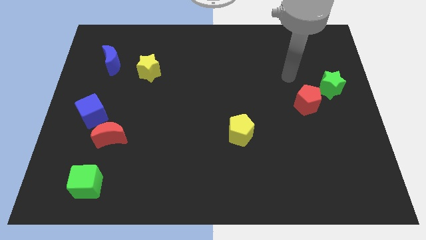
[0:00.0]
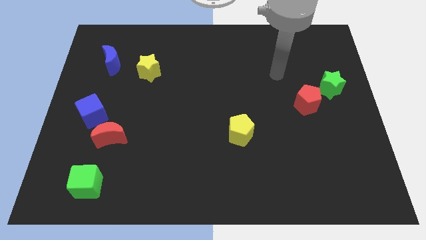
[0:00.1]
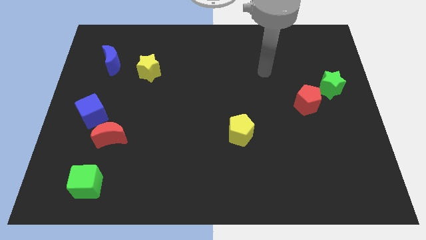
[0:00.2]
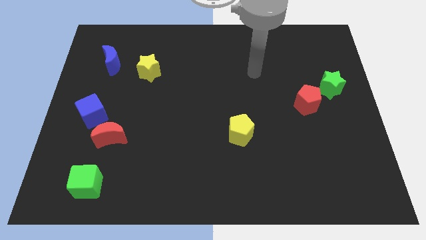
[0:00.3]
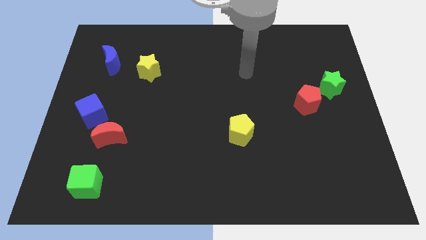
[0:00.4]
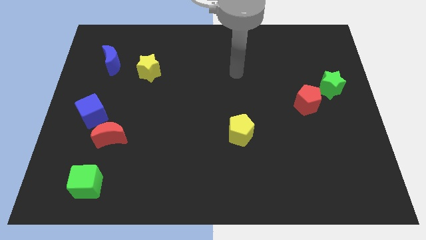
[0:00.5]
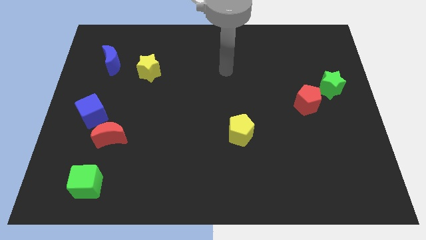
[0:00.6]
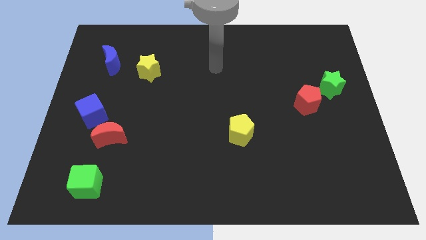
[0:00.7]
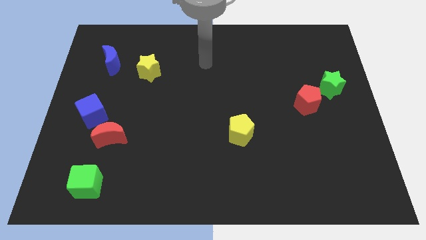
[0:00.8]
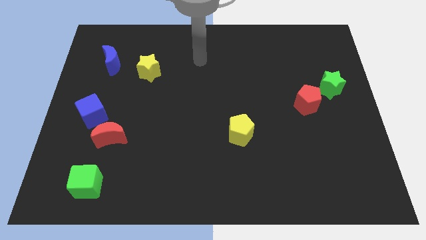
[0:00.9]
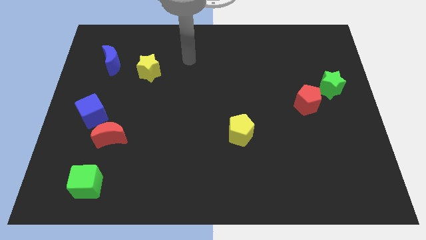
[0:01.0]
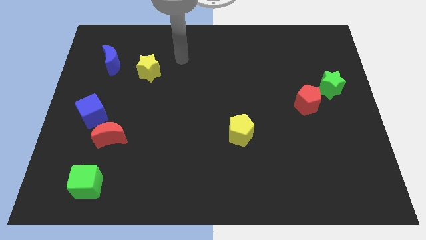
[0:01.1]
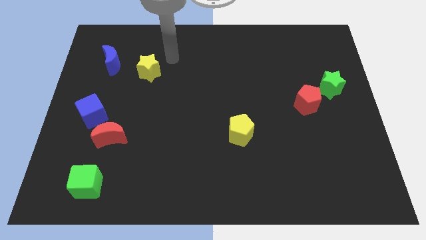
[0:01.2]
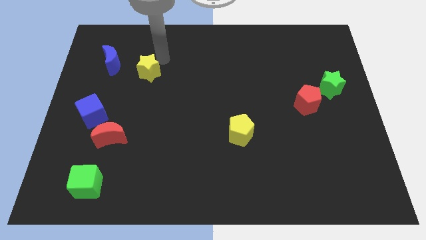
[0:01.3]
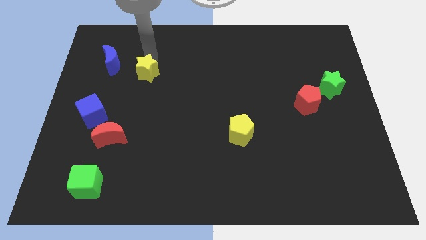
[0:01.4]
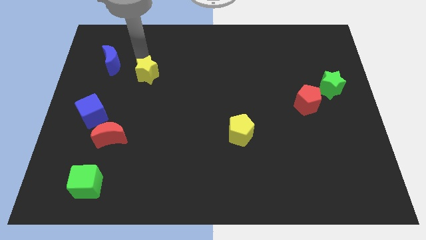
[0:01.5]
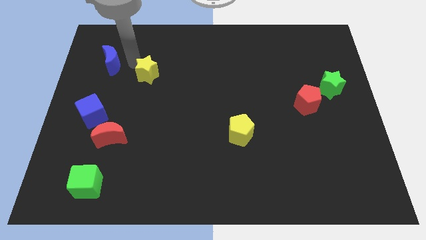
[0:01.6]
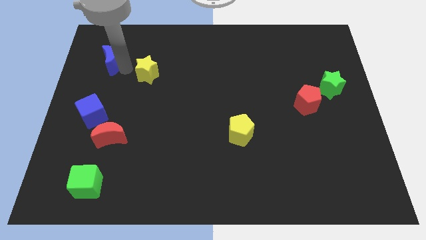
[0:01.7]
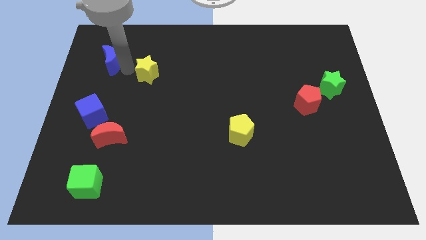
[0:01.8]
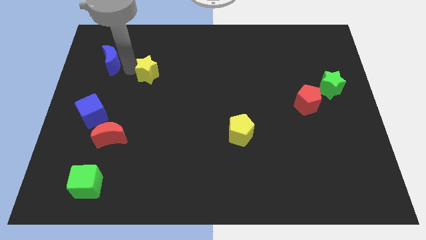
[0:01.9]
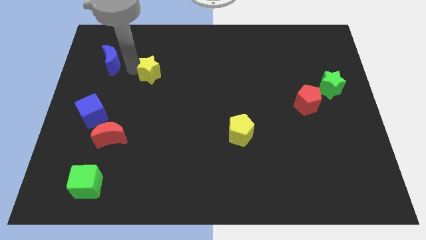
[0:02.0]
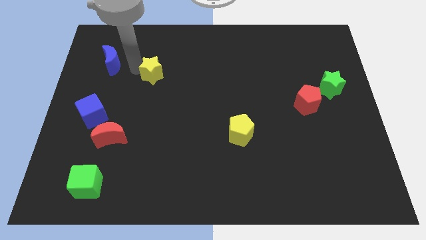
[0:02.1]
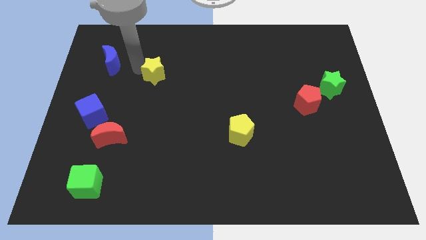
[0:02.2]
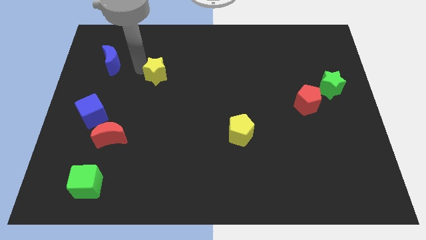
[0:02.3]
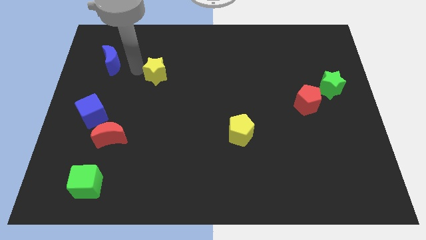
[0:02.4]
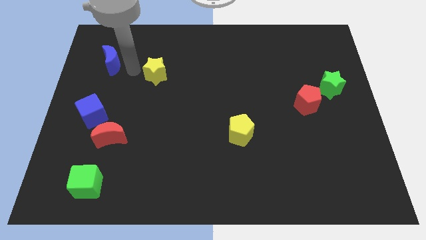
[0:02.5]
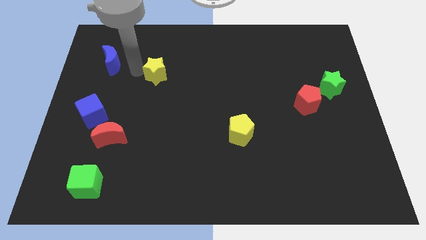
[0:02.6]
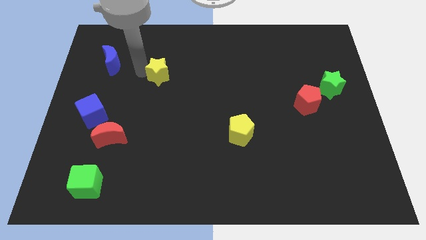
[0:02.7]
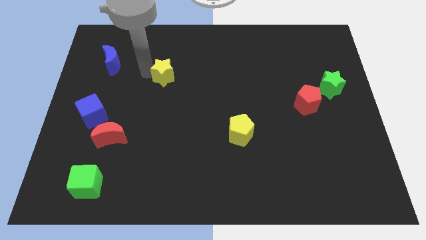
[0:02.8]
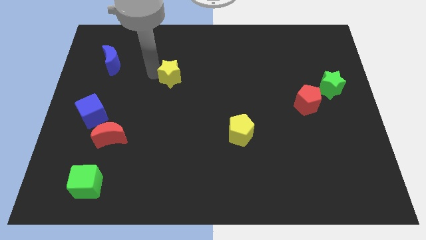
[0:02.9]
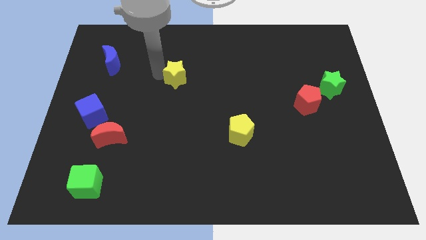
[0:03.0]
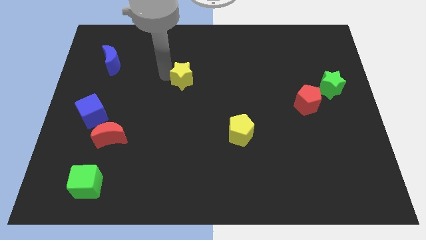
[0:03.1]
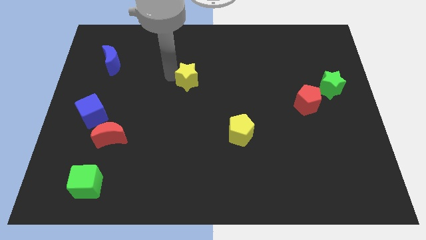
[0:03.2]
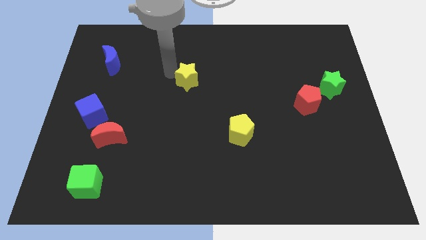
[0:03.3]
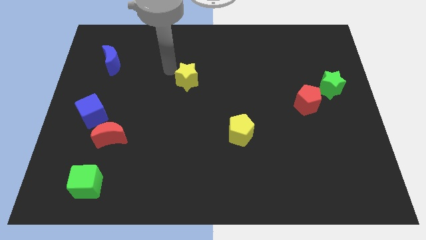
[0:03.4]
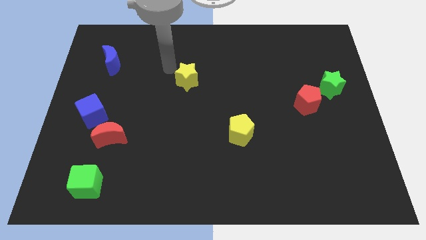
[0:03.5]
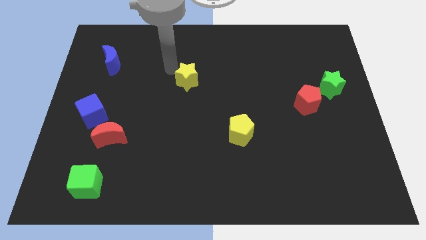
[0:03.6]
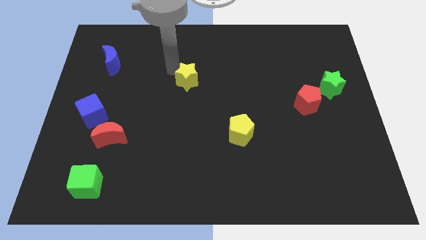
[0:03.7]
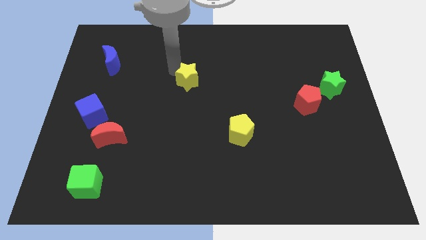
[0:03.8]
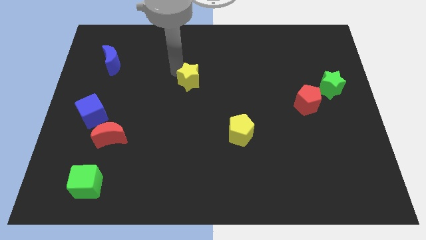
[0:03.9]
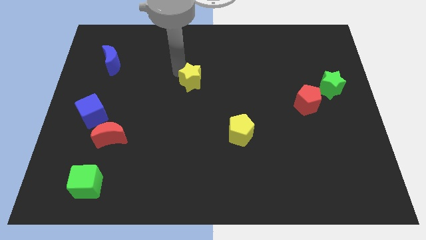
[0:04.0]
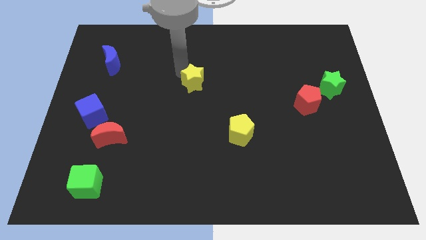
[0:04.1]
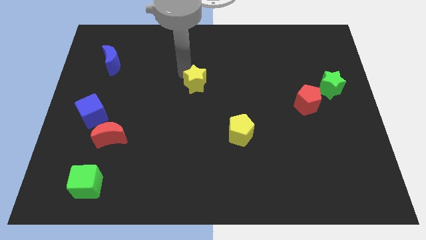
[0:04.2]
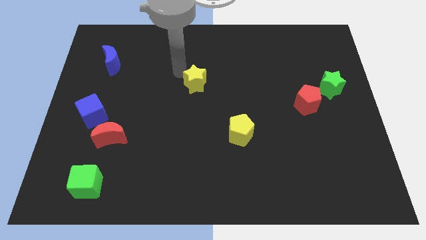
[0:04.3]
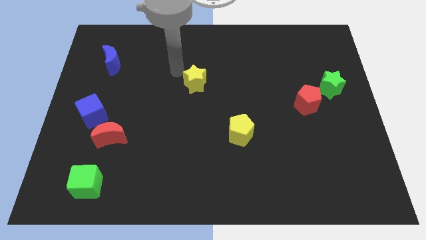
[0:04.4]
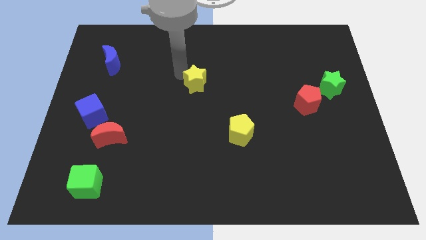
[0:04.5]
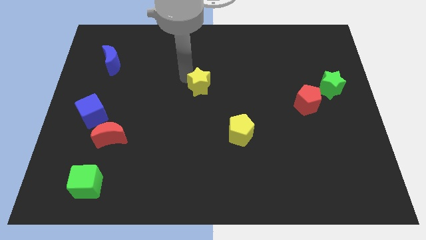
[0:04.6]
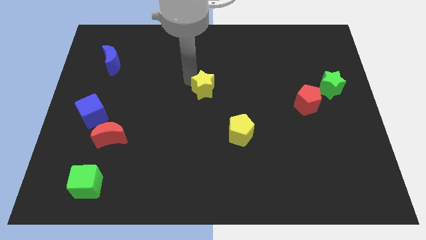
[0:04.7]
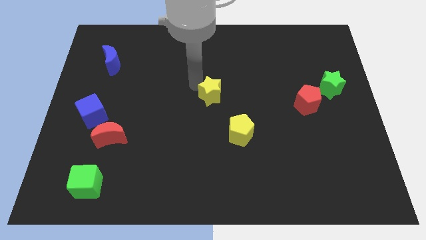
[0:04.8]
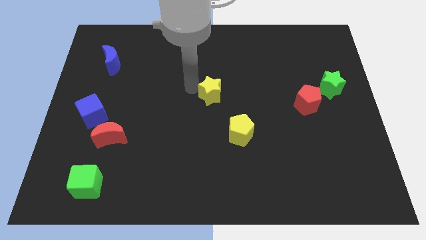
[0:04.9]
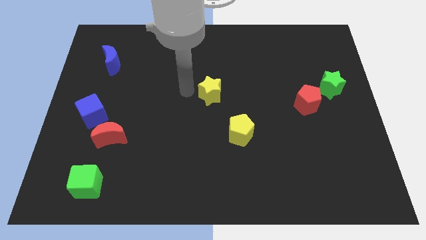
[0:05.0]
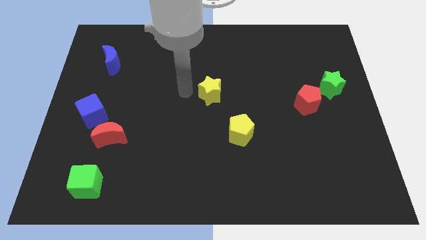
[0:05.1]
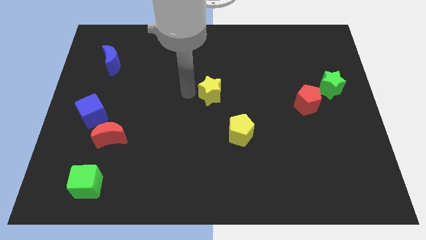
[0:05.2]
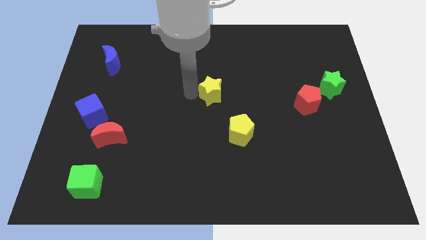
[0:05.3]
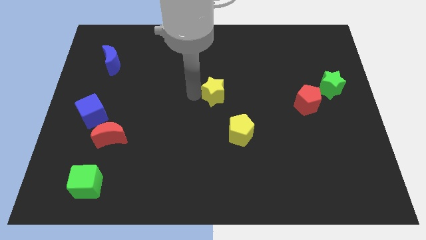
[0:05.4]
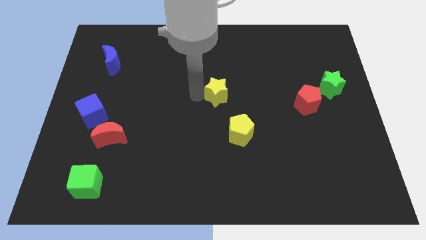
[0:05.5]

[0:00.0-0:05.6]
slide the yellow star to the top of the yellow pentagon

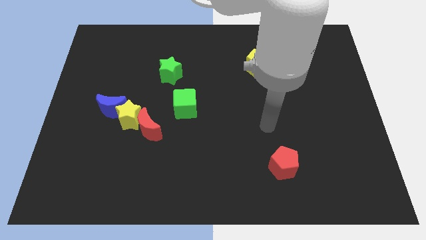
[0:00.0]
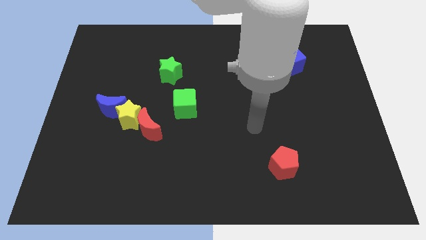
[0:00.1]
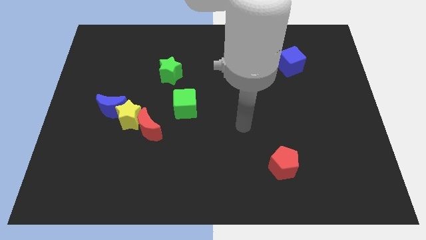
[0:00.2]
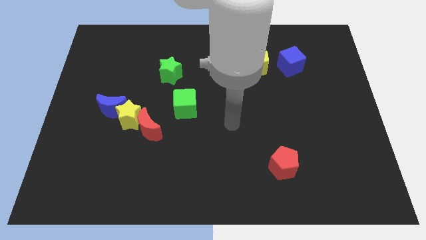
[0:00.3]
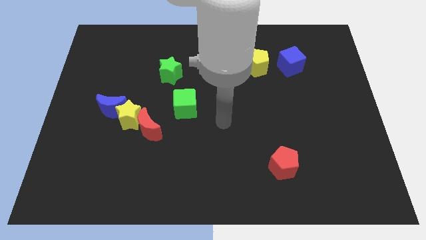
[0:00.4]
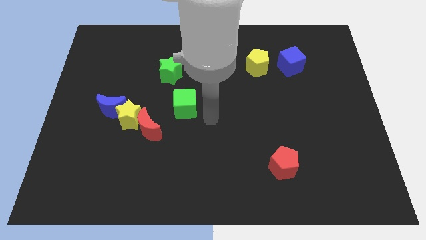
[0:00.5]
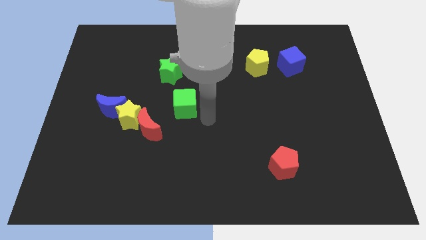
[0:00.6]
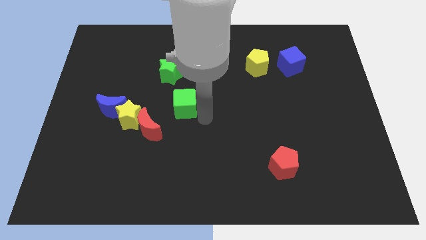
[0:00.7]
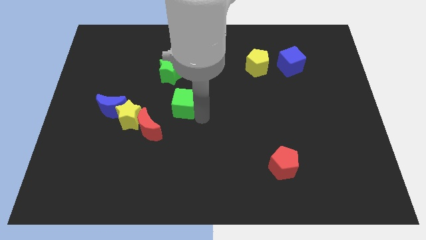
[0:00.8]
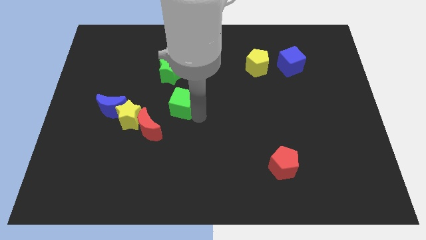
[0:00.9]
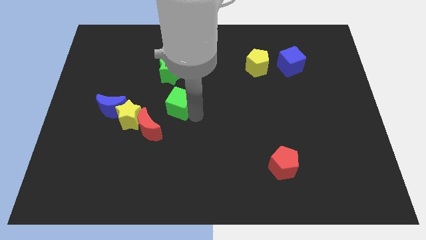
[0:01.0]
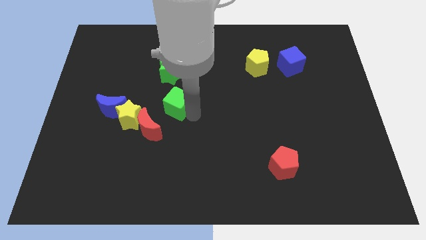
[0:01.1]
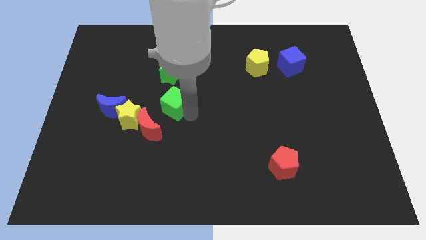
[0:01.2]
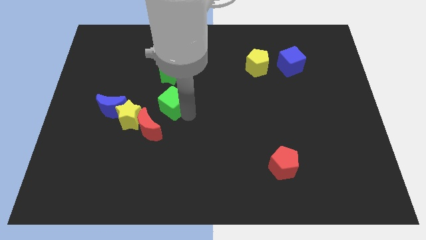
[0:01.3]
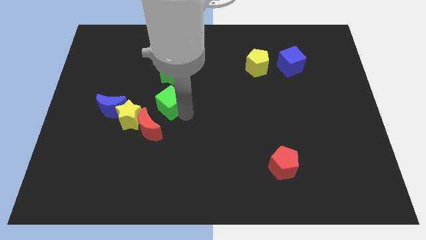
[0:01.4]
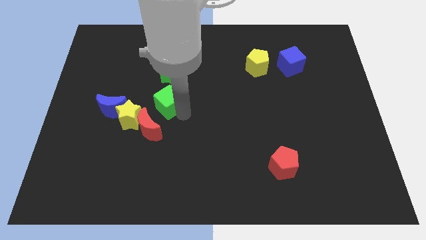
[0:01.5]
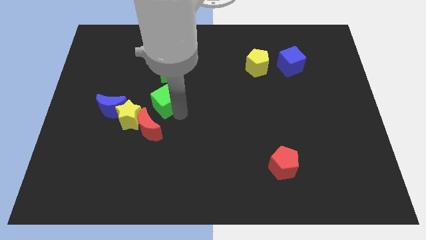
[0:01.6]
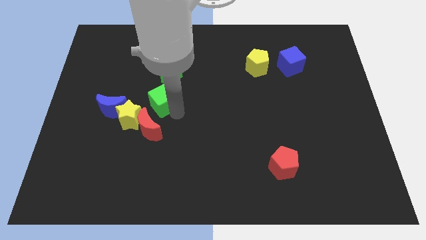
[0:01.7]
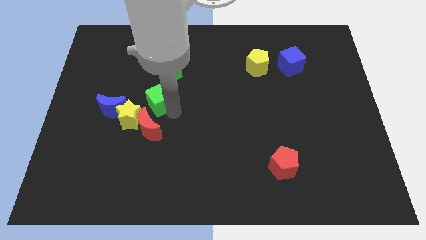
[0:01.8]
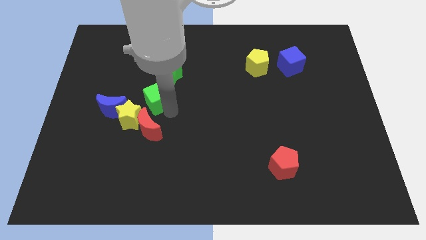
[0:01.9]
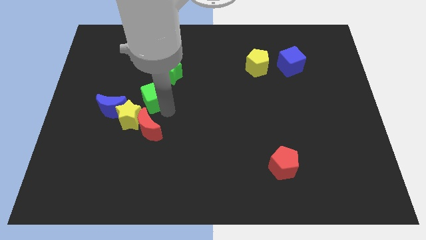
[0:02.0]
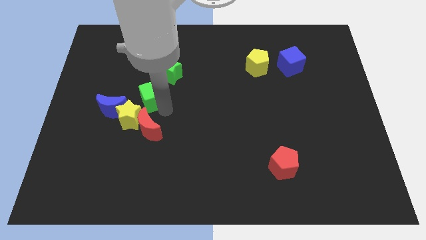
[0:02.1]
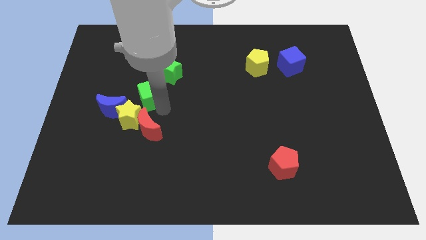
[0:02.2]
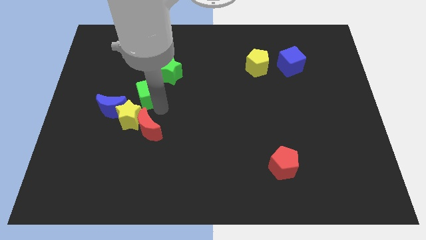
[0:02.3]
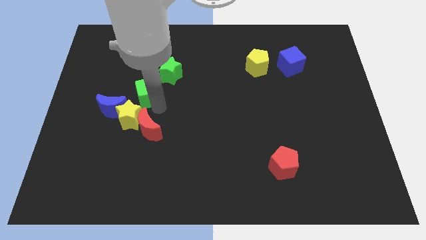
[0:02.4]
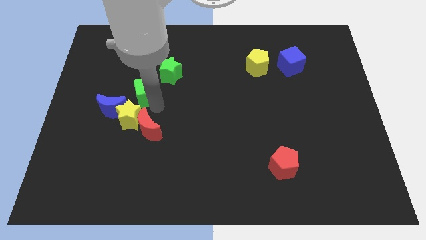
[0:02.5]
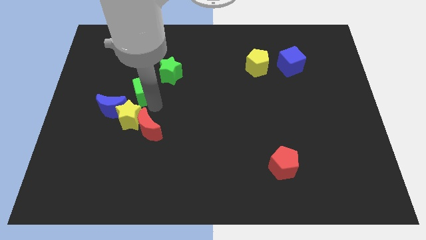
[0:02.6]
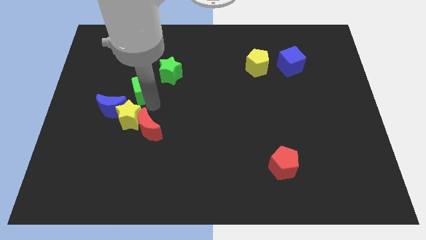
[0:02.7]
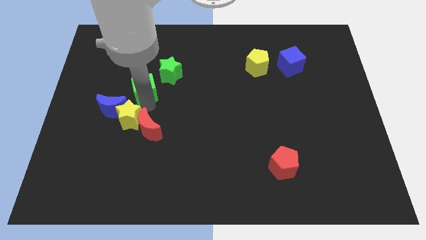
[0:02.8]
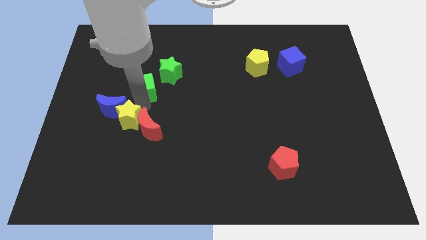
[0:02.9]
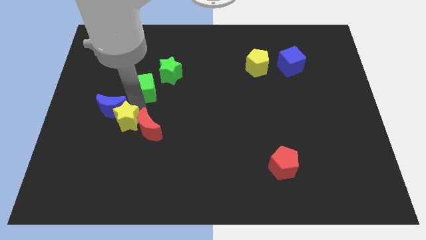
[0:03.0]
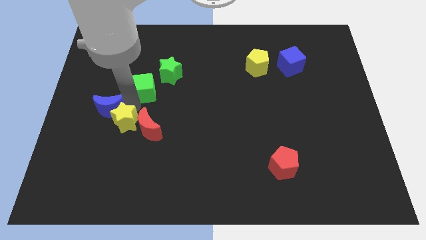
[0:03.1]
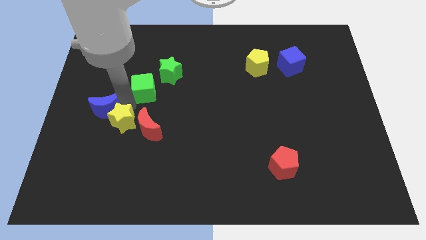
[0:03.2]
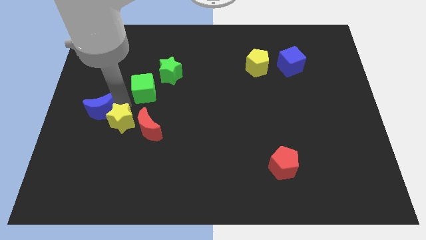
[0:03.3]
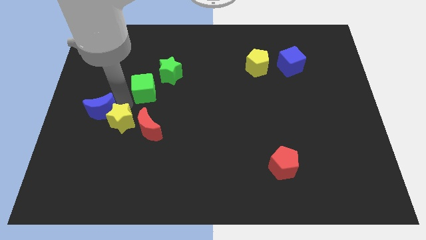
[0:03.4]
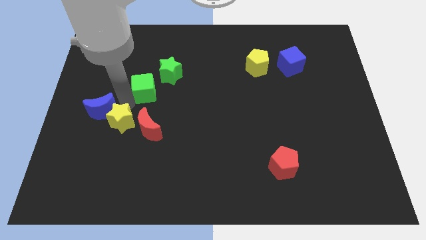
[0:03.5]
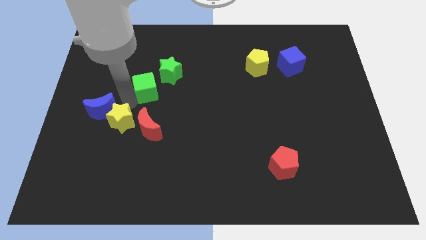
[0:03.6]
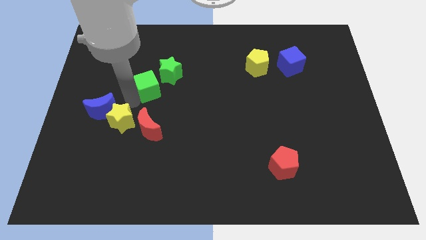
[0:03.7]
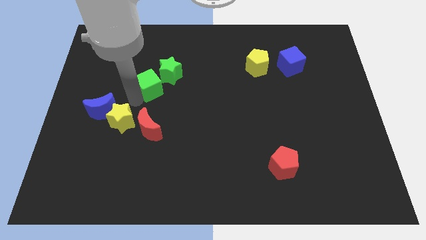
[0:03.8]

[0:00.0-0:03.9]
push the green cube to the left of the green star
